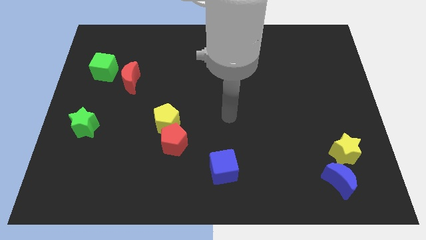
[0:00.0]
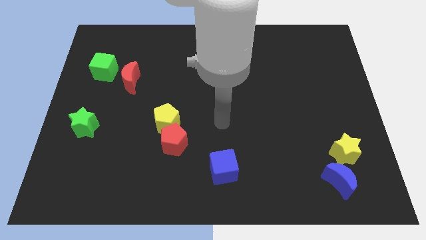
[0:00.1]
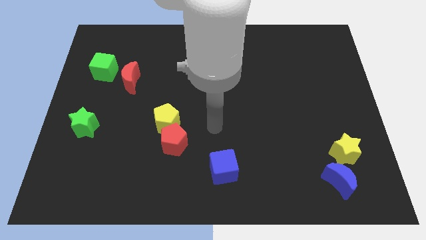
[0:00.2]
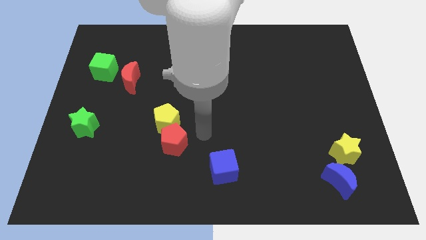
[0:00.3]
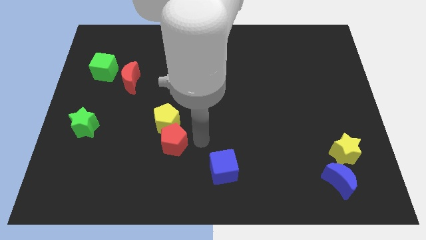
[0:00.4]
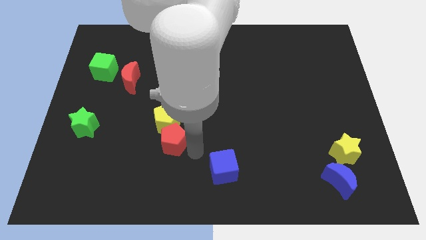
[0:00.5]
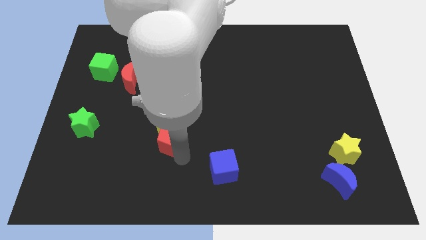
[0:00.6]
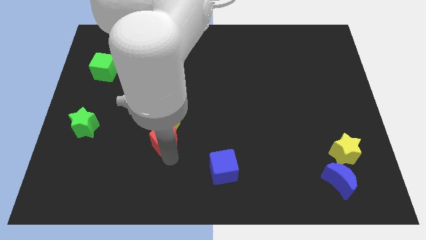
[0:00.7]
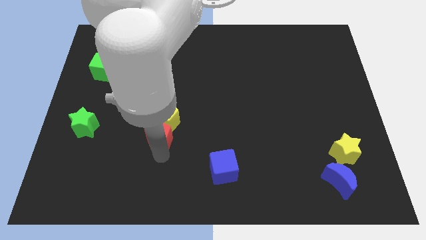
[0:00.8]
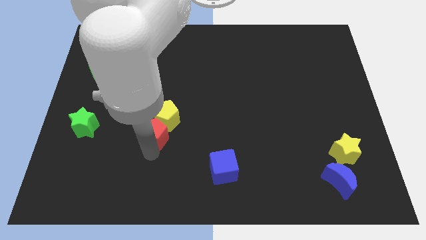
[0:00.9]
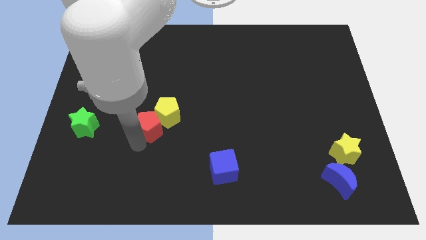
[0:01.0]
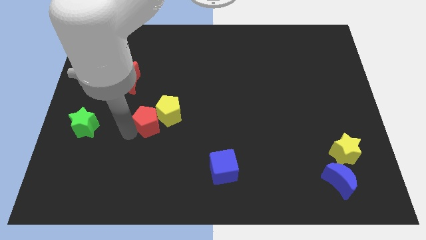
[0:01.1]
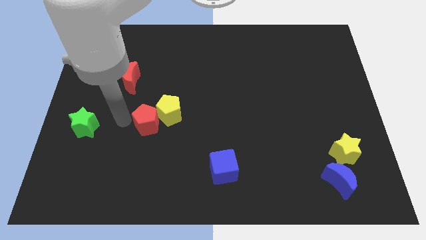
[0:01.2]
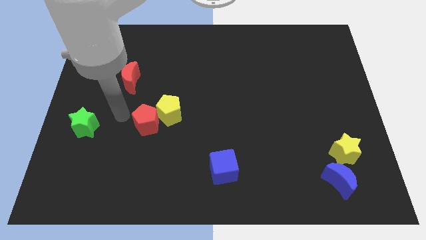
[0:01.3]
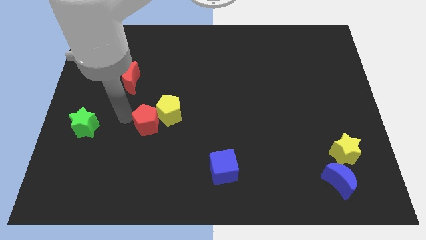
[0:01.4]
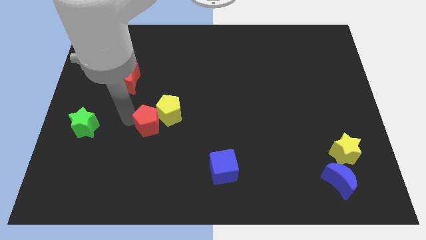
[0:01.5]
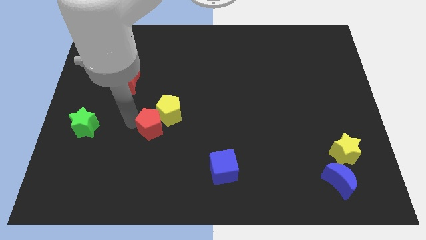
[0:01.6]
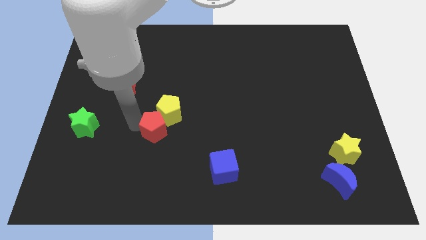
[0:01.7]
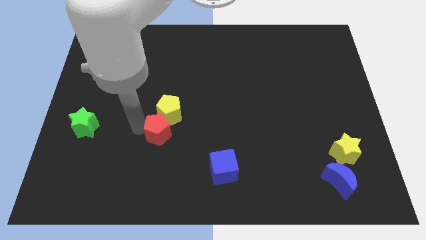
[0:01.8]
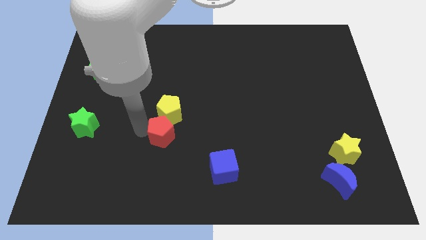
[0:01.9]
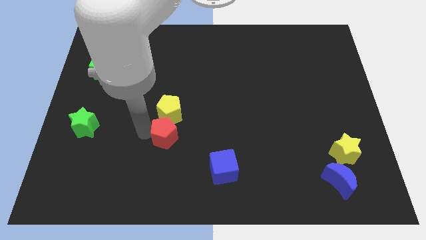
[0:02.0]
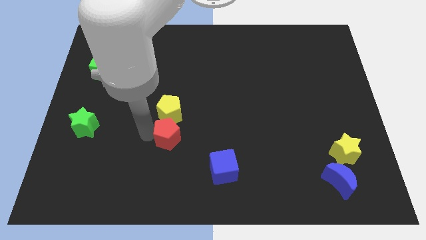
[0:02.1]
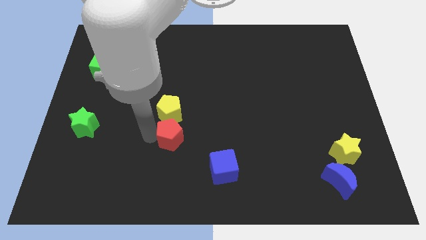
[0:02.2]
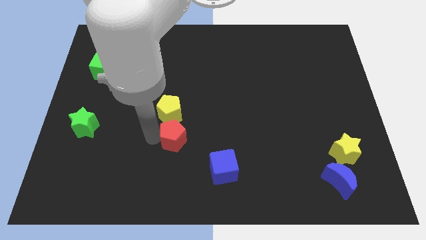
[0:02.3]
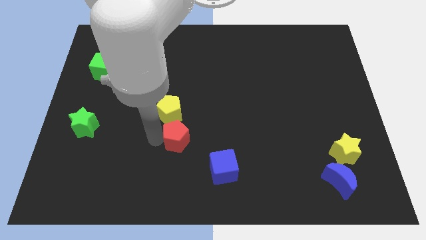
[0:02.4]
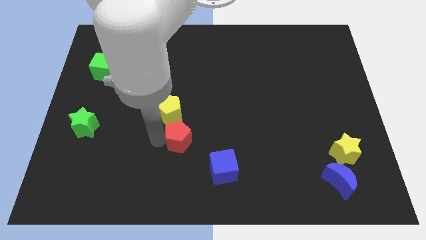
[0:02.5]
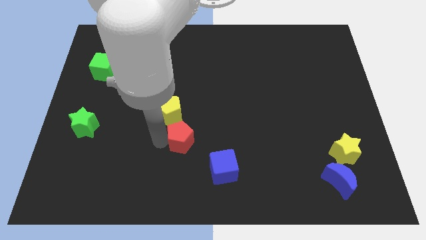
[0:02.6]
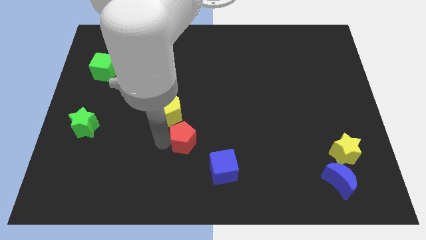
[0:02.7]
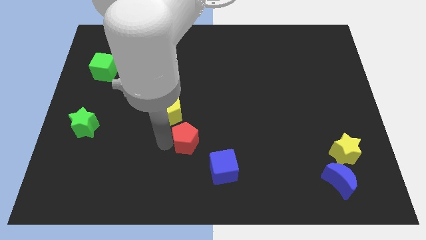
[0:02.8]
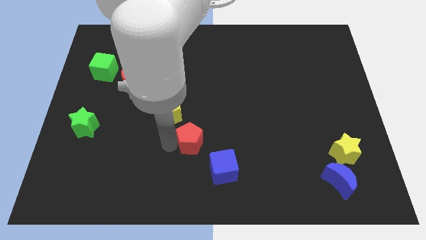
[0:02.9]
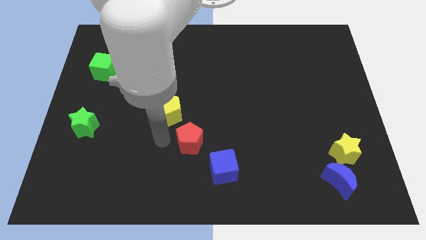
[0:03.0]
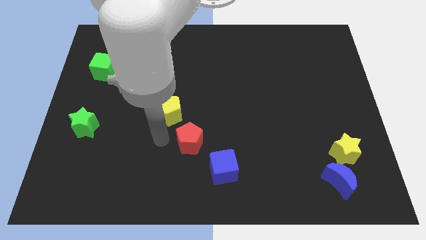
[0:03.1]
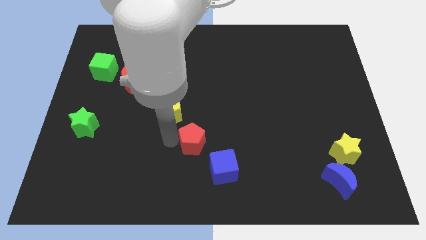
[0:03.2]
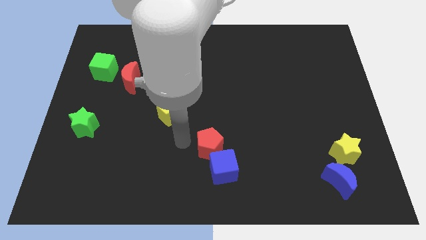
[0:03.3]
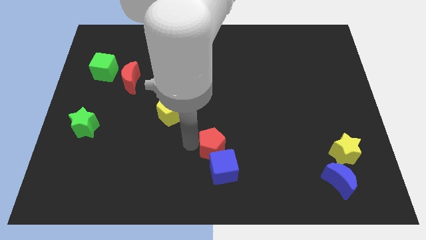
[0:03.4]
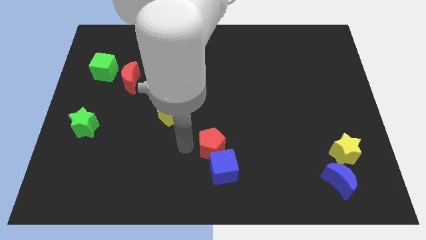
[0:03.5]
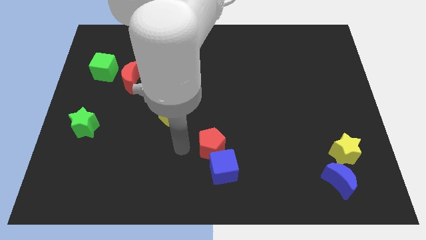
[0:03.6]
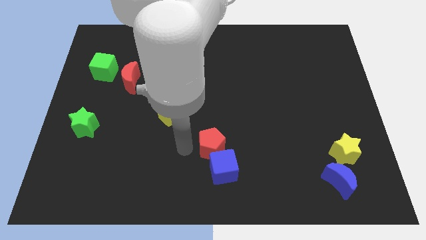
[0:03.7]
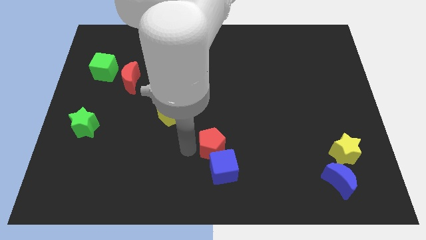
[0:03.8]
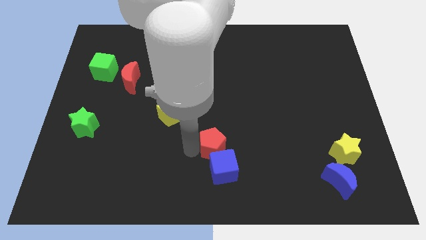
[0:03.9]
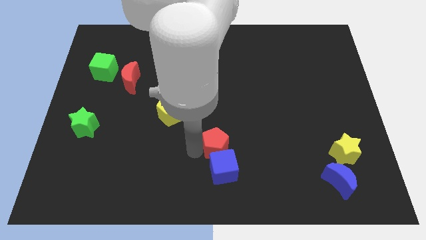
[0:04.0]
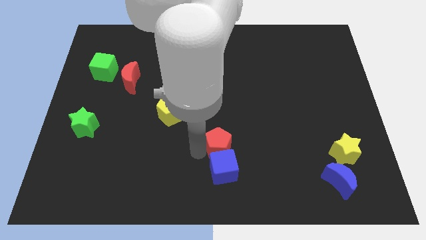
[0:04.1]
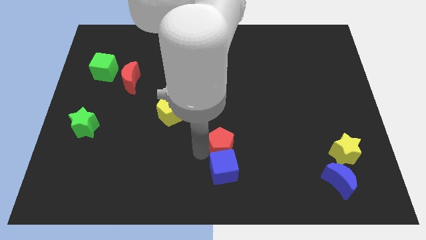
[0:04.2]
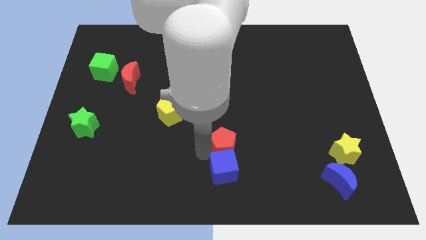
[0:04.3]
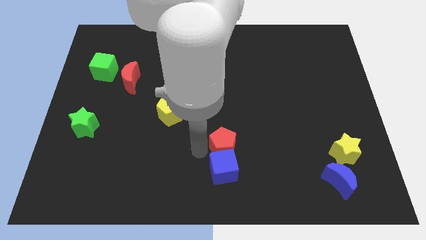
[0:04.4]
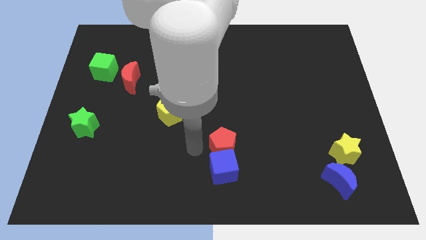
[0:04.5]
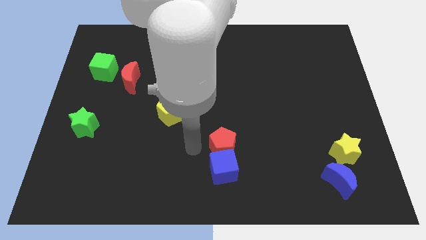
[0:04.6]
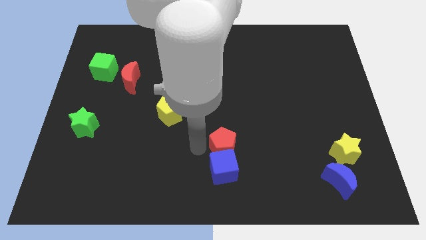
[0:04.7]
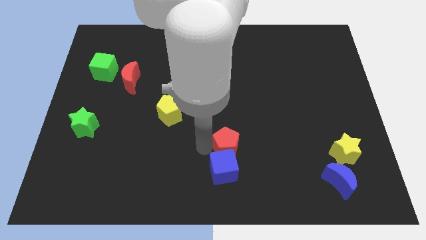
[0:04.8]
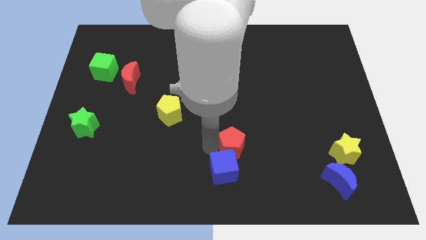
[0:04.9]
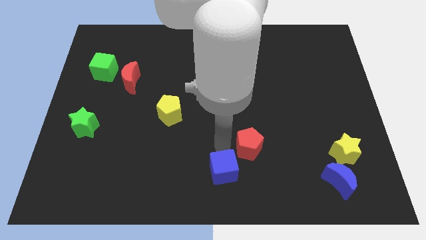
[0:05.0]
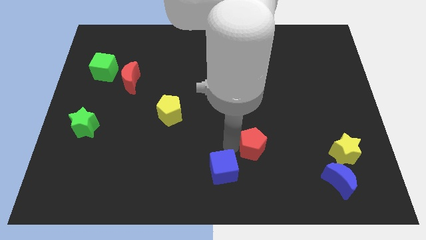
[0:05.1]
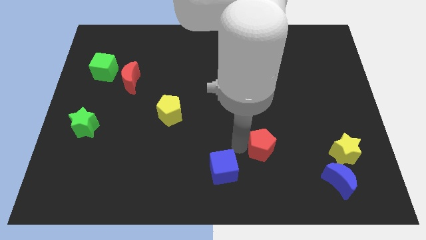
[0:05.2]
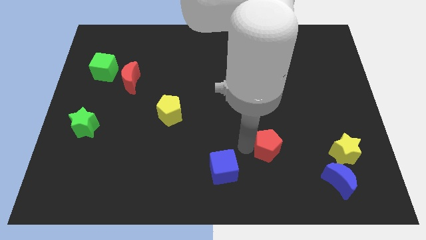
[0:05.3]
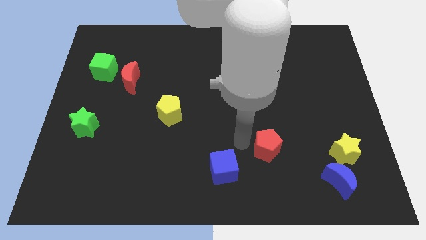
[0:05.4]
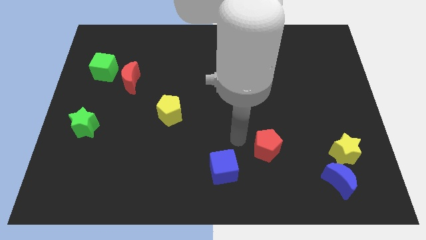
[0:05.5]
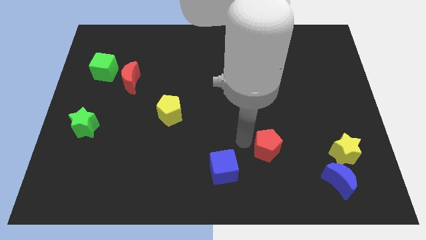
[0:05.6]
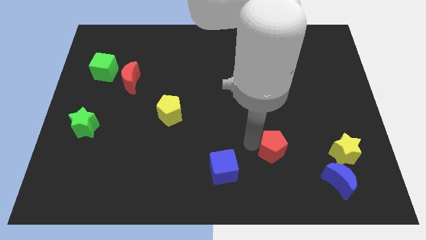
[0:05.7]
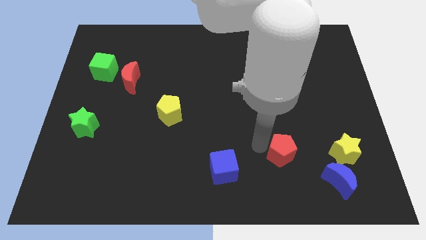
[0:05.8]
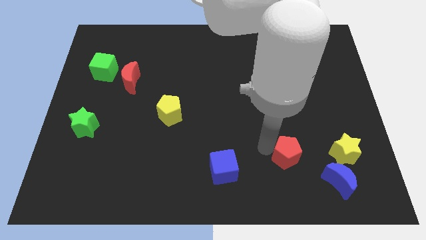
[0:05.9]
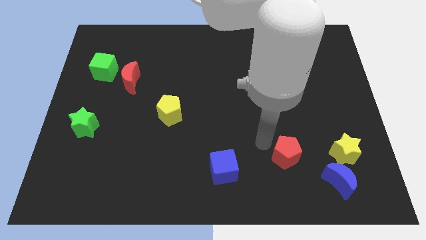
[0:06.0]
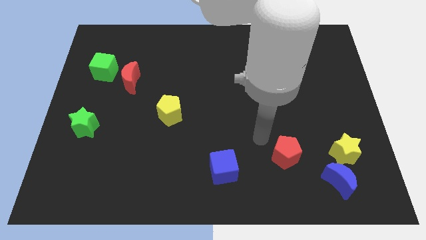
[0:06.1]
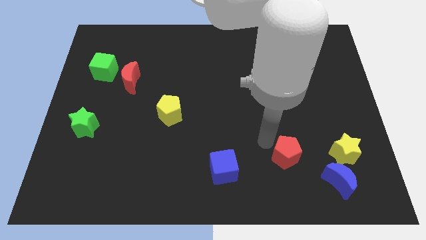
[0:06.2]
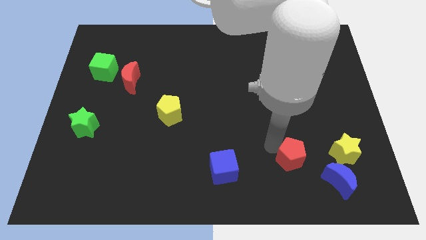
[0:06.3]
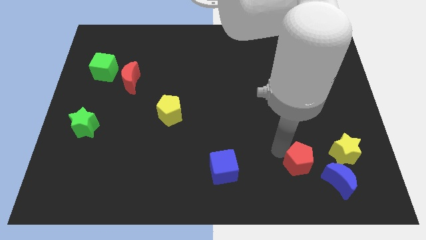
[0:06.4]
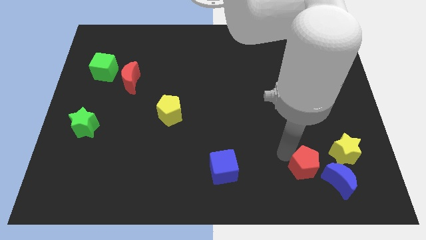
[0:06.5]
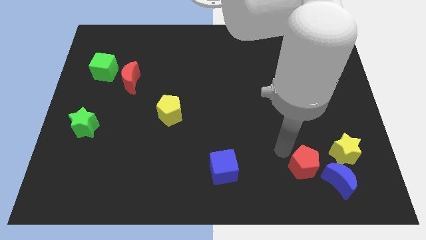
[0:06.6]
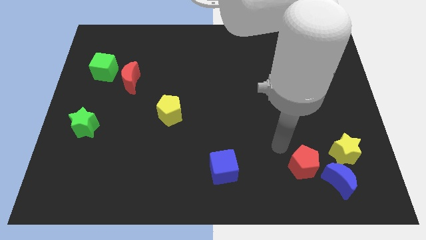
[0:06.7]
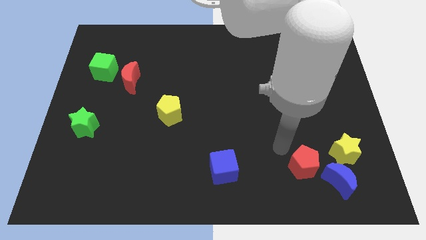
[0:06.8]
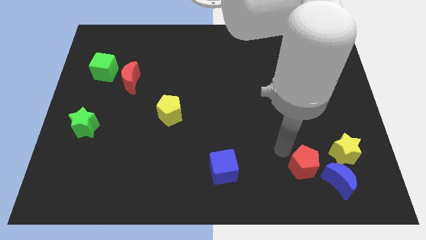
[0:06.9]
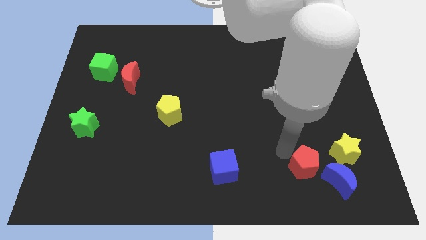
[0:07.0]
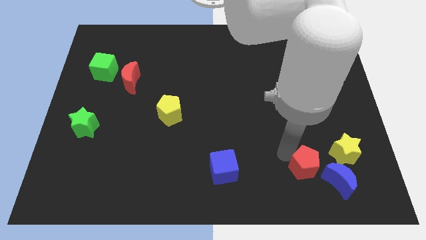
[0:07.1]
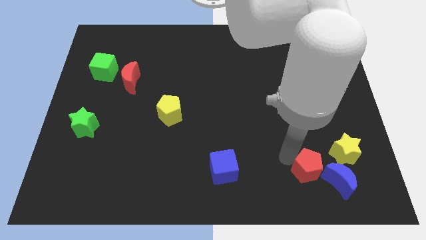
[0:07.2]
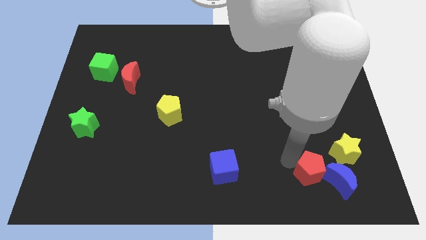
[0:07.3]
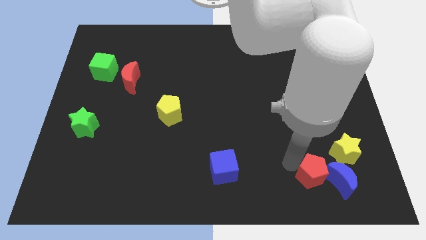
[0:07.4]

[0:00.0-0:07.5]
slide the red pentagon towards the blue moon
